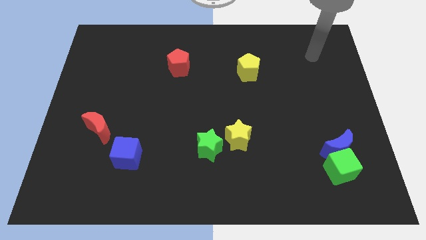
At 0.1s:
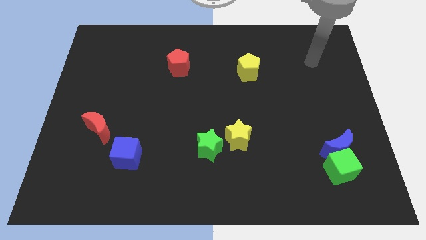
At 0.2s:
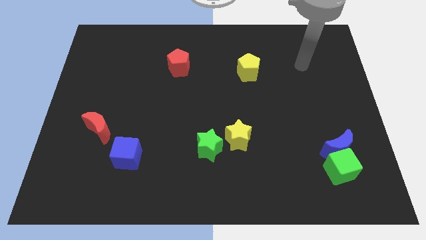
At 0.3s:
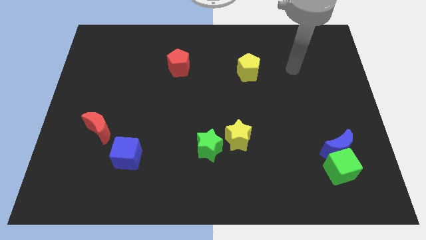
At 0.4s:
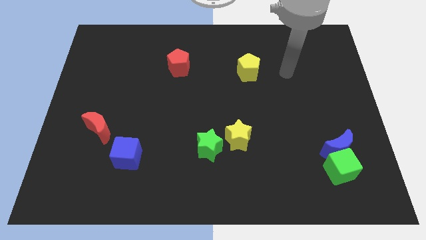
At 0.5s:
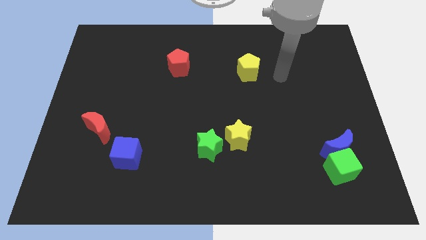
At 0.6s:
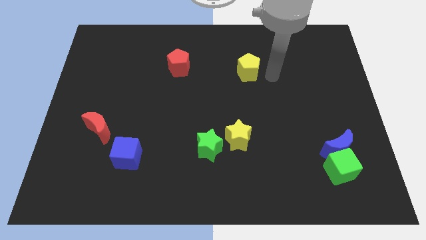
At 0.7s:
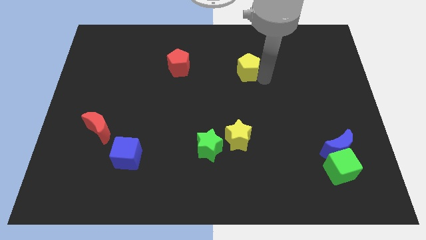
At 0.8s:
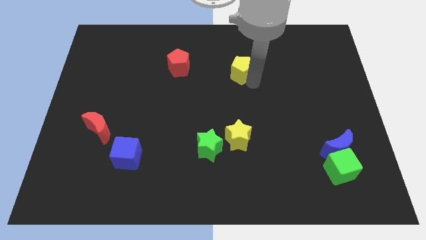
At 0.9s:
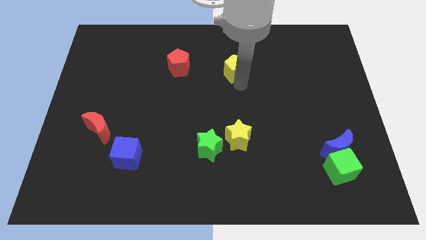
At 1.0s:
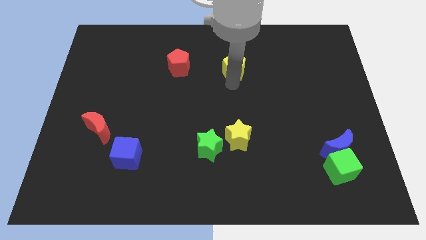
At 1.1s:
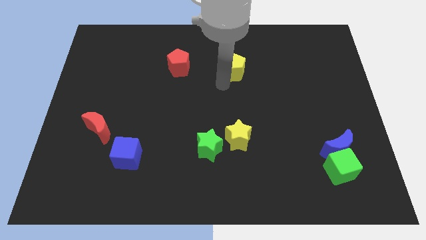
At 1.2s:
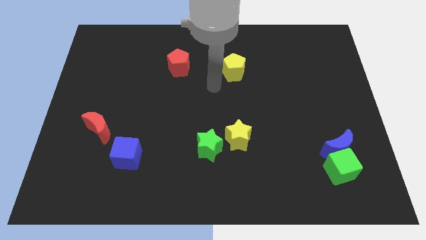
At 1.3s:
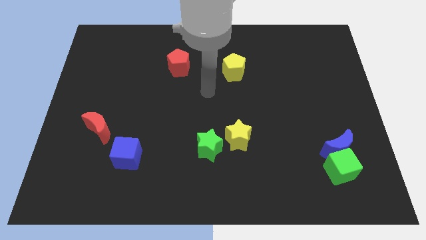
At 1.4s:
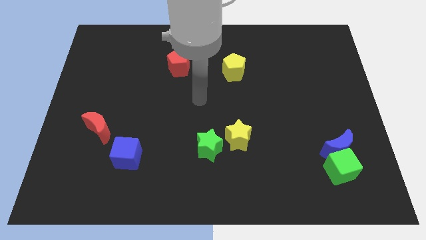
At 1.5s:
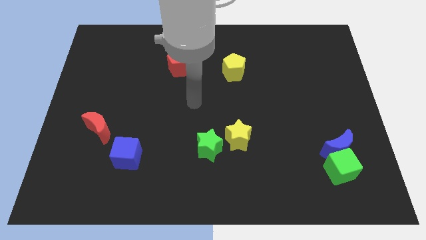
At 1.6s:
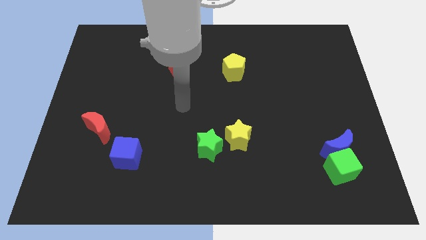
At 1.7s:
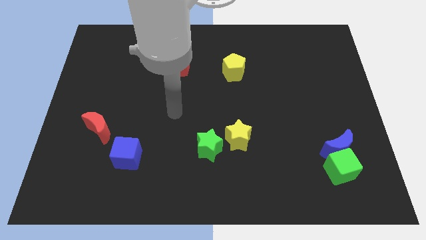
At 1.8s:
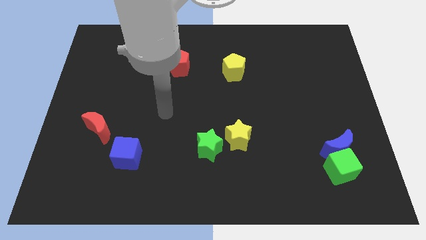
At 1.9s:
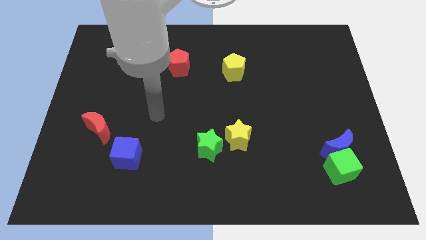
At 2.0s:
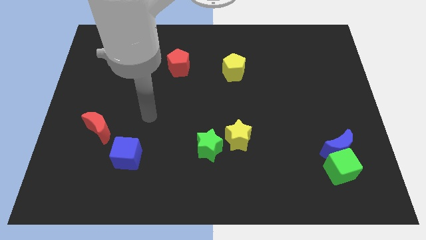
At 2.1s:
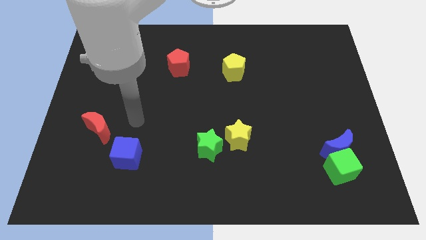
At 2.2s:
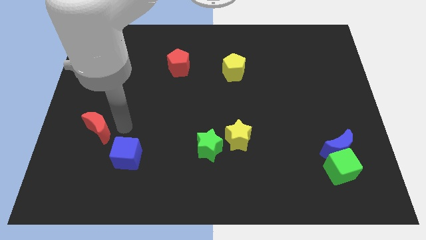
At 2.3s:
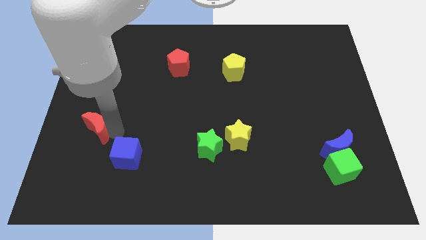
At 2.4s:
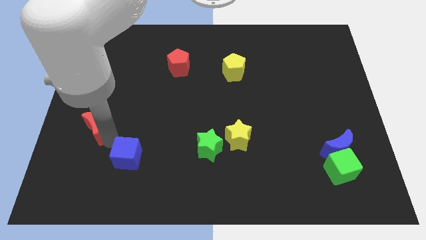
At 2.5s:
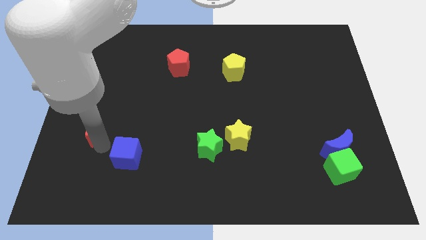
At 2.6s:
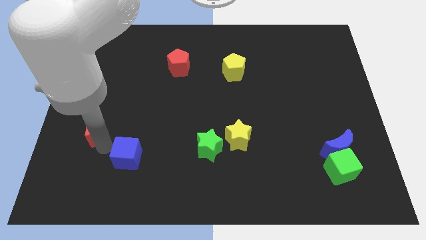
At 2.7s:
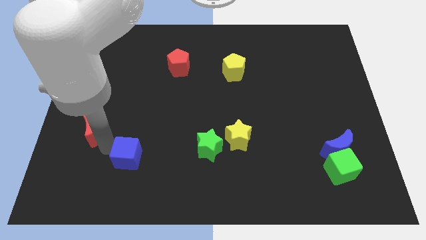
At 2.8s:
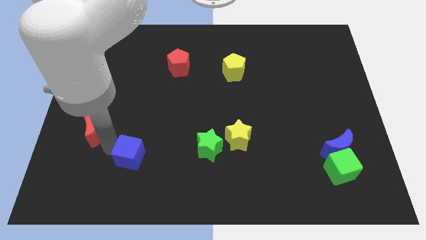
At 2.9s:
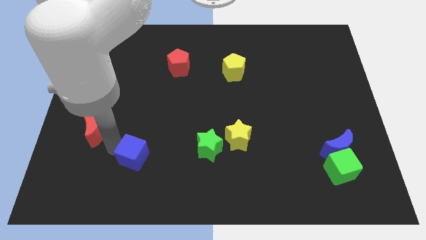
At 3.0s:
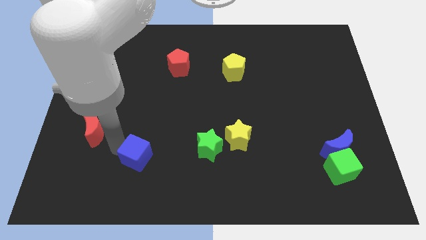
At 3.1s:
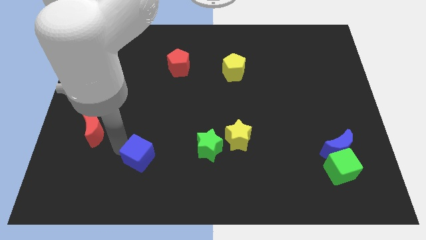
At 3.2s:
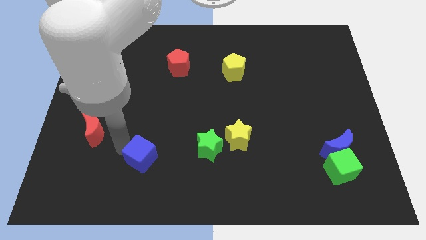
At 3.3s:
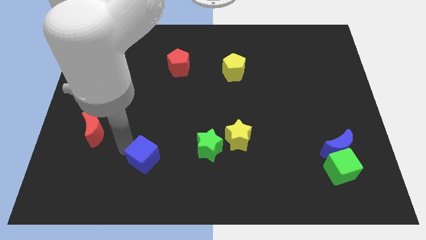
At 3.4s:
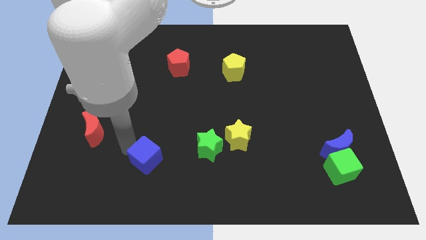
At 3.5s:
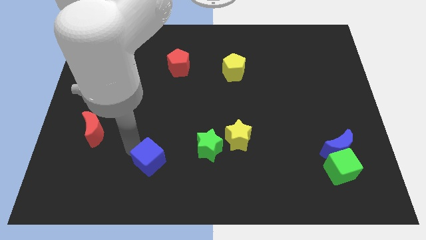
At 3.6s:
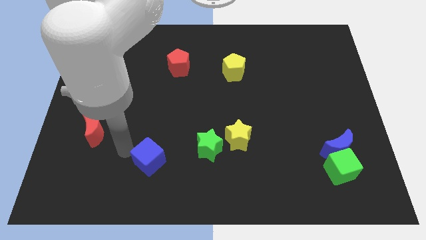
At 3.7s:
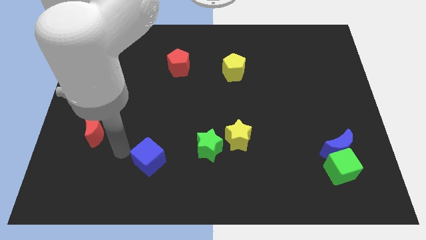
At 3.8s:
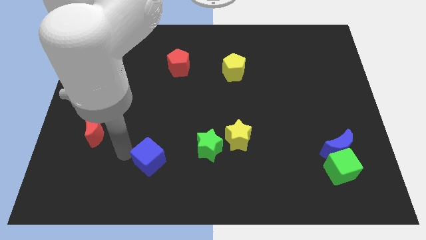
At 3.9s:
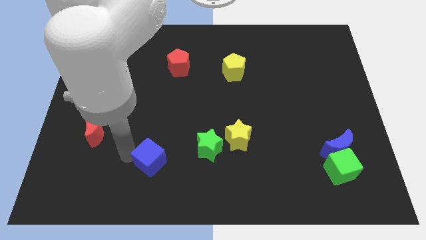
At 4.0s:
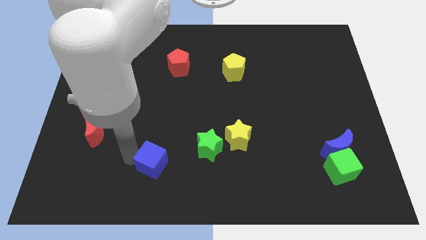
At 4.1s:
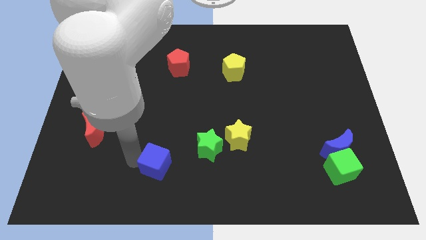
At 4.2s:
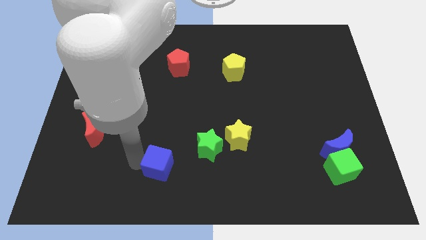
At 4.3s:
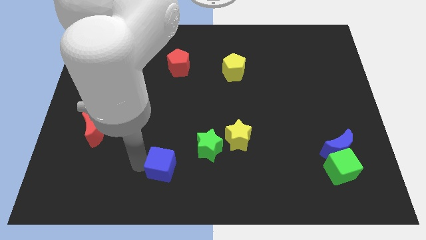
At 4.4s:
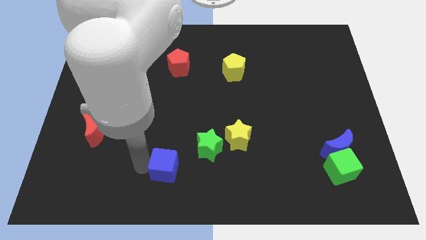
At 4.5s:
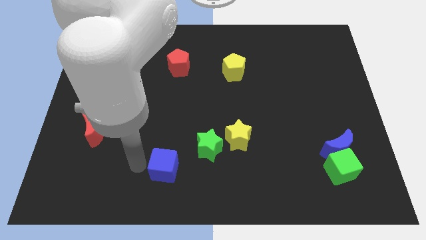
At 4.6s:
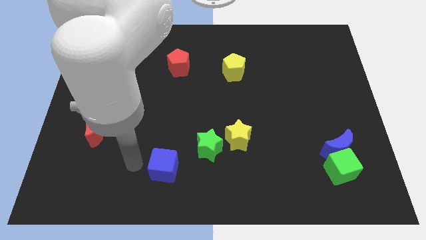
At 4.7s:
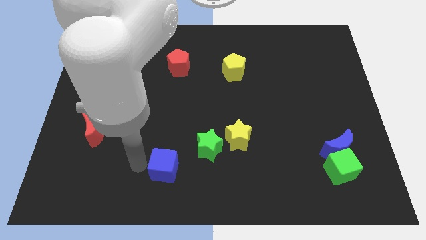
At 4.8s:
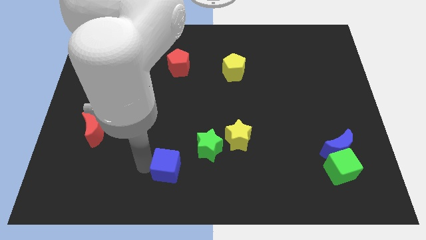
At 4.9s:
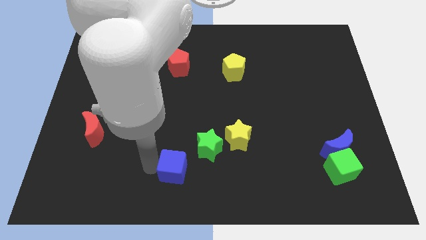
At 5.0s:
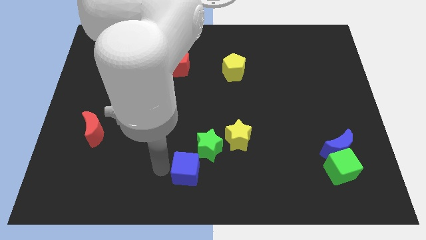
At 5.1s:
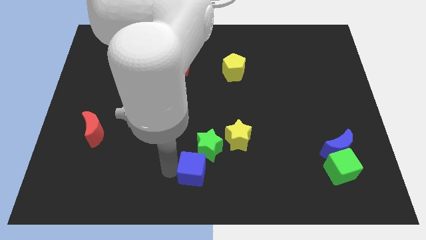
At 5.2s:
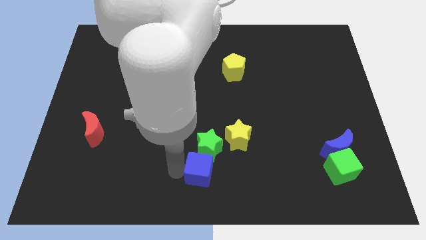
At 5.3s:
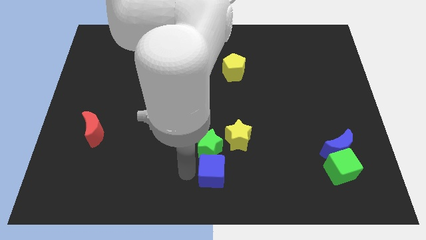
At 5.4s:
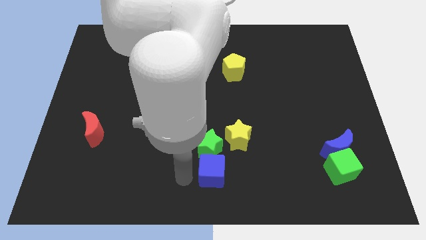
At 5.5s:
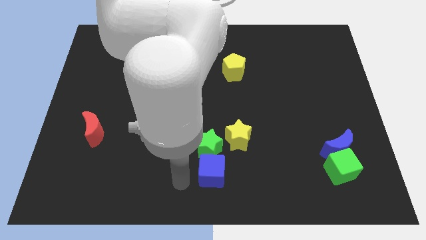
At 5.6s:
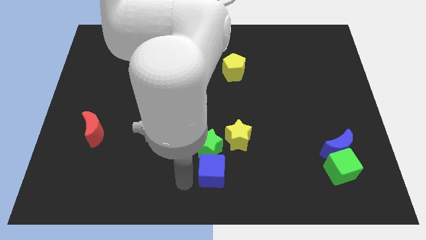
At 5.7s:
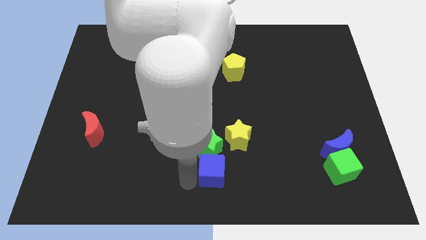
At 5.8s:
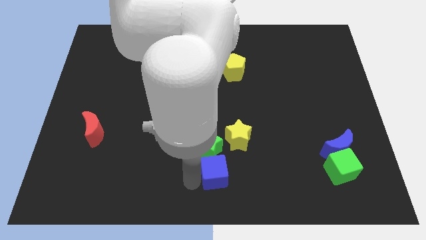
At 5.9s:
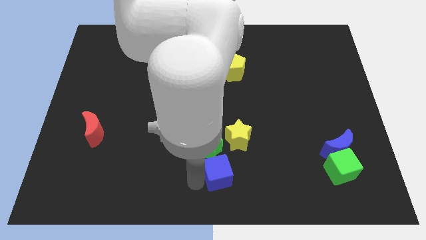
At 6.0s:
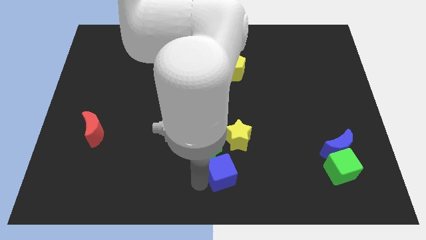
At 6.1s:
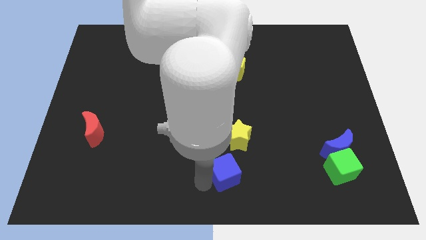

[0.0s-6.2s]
move the blue cube right

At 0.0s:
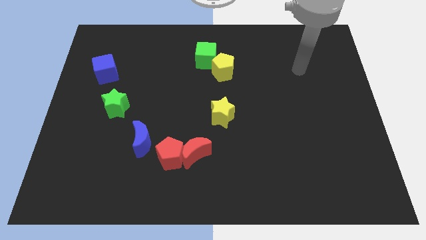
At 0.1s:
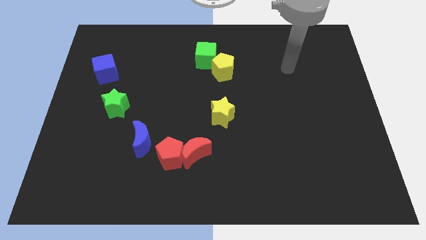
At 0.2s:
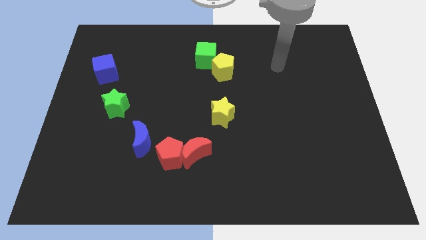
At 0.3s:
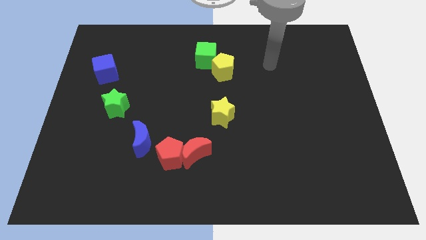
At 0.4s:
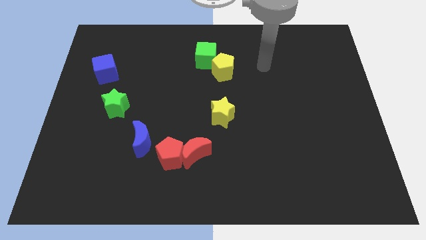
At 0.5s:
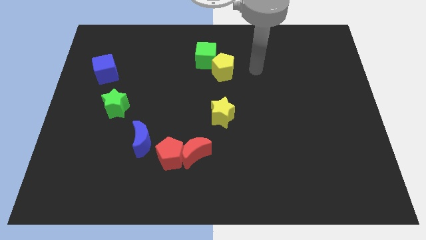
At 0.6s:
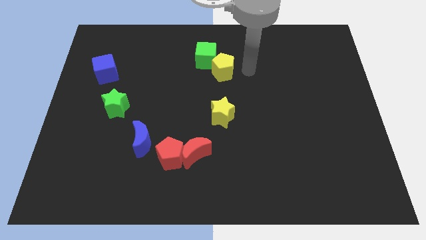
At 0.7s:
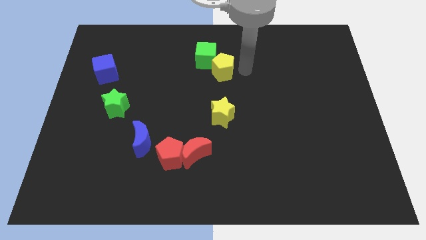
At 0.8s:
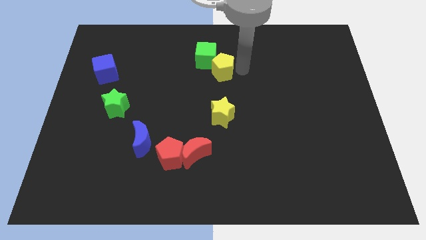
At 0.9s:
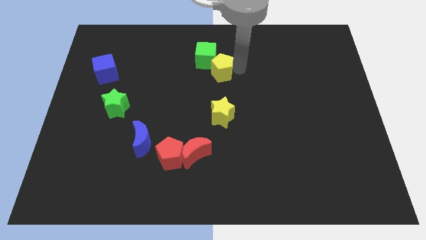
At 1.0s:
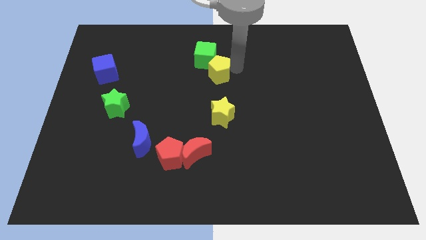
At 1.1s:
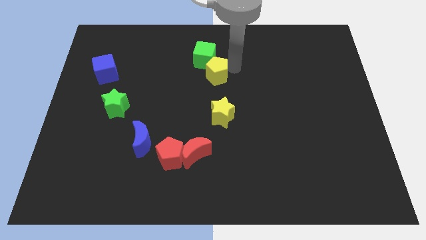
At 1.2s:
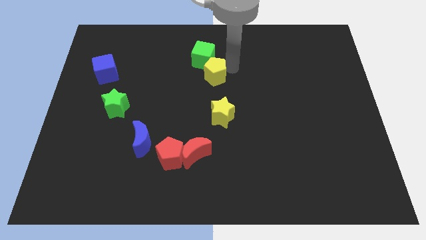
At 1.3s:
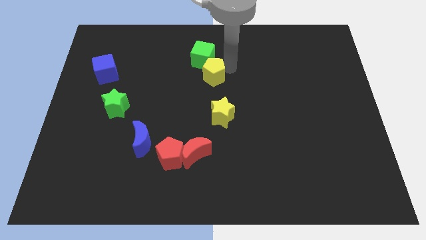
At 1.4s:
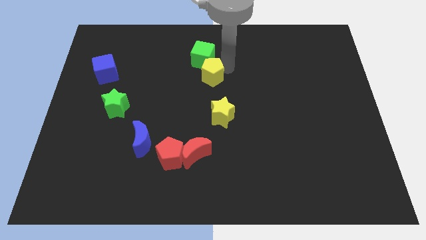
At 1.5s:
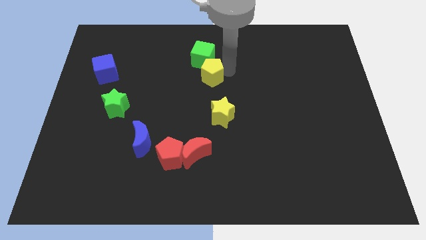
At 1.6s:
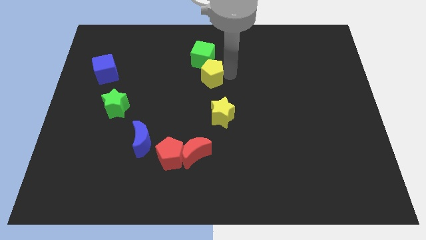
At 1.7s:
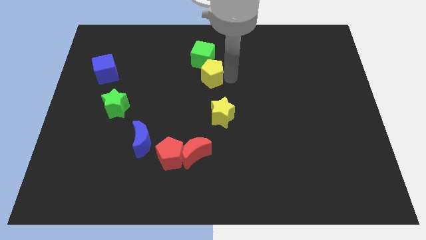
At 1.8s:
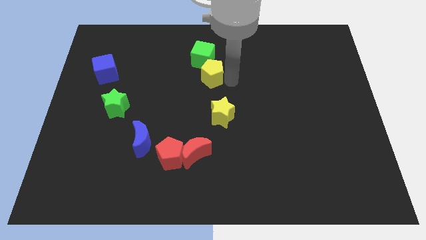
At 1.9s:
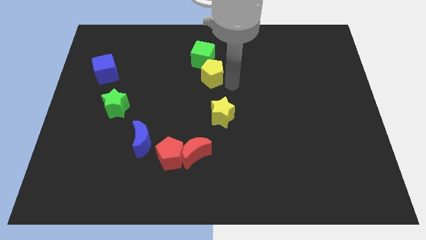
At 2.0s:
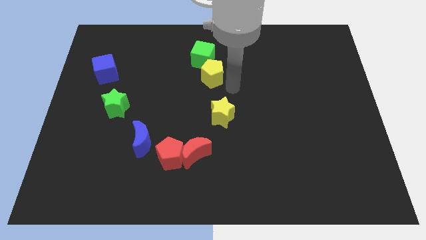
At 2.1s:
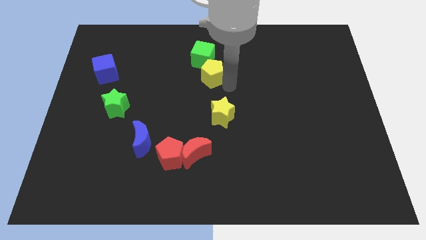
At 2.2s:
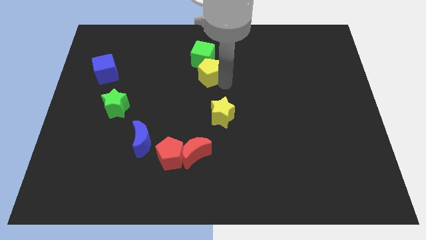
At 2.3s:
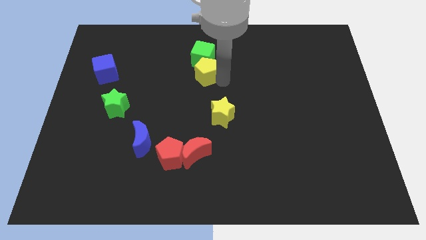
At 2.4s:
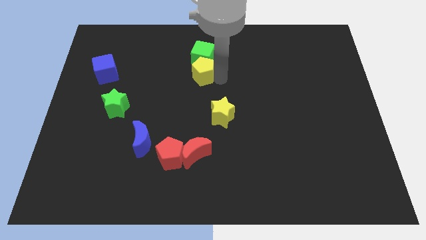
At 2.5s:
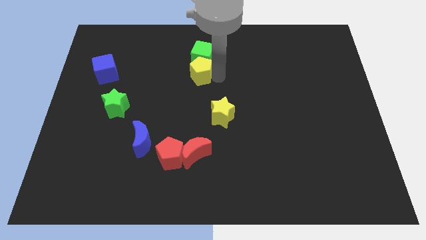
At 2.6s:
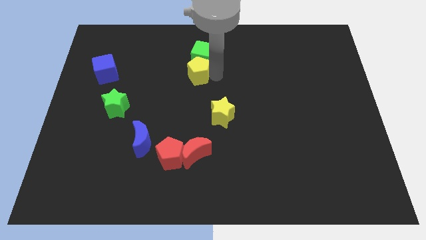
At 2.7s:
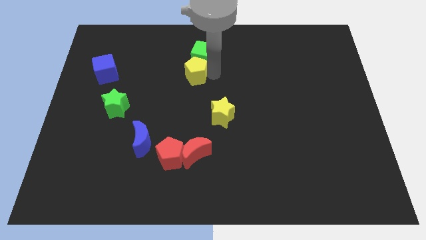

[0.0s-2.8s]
slightly move the yellow pentagon left
